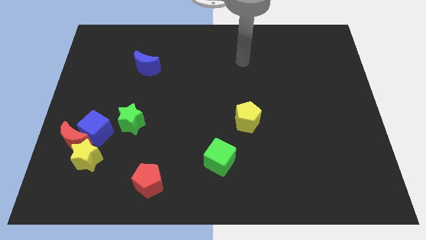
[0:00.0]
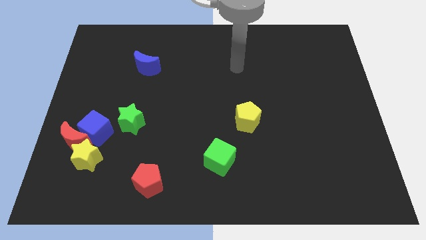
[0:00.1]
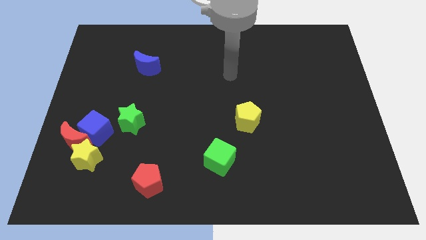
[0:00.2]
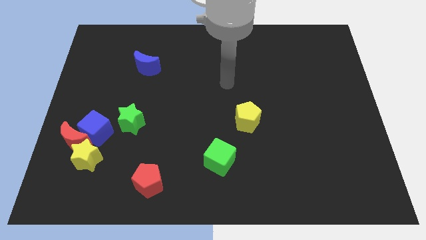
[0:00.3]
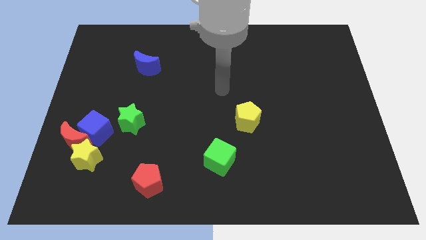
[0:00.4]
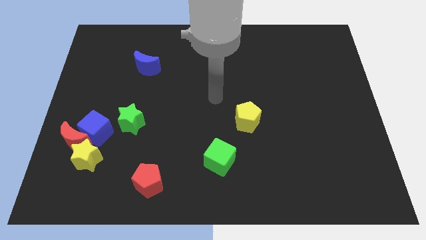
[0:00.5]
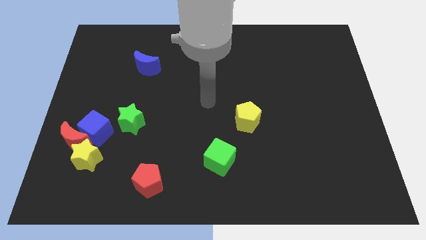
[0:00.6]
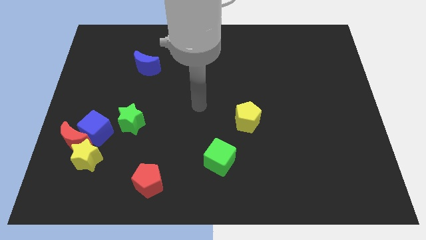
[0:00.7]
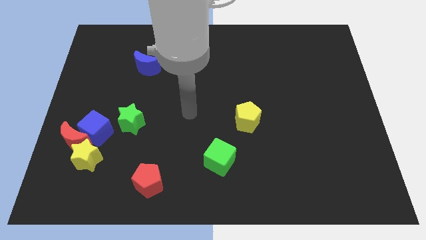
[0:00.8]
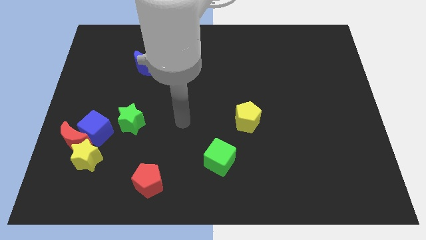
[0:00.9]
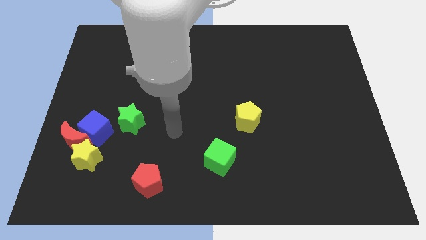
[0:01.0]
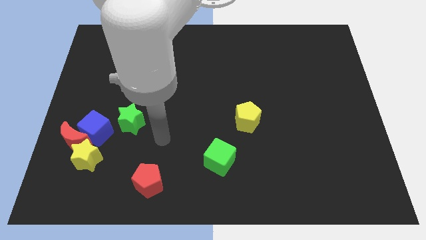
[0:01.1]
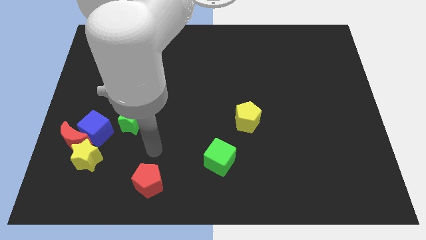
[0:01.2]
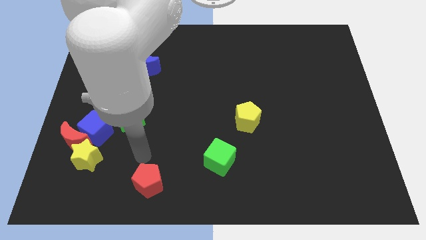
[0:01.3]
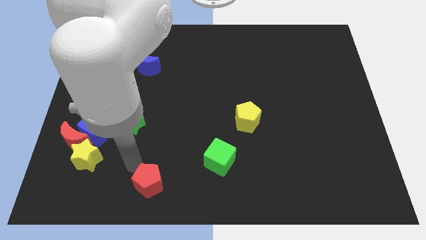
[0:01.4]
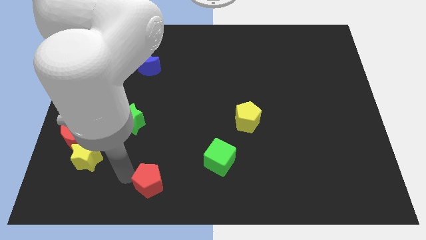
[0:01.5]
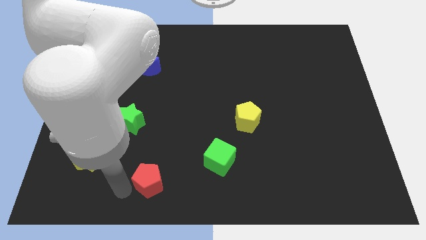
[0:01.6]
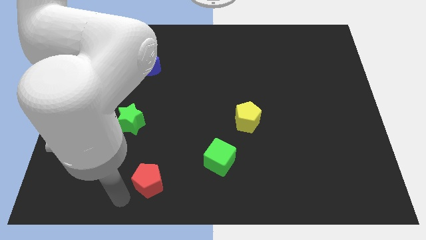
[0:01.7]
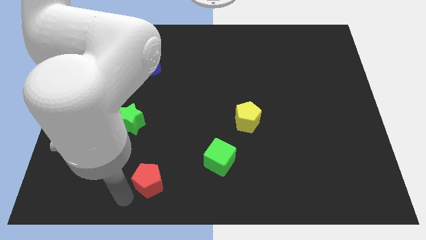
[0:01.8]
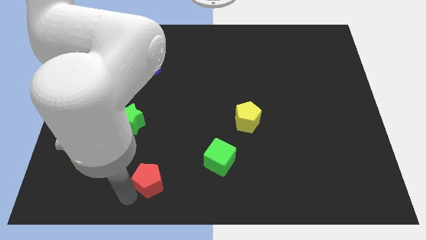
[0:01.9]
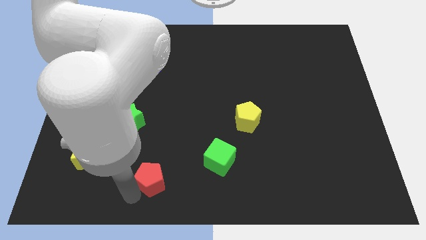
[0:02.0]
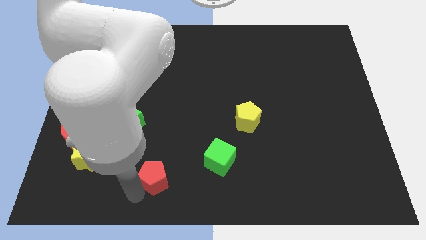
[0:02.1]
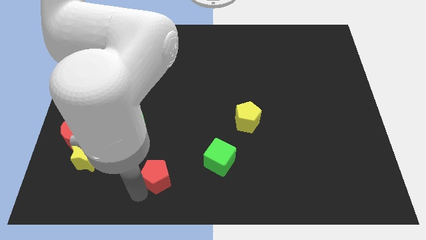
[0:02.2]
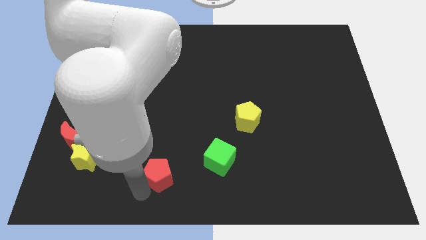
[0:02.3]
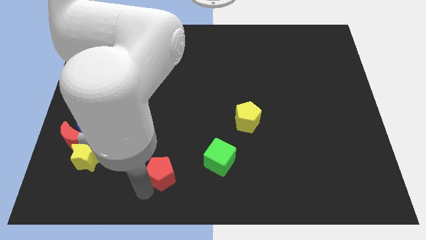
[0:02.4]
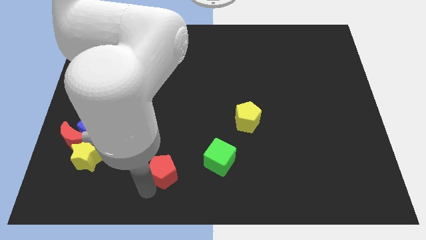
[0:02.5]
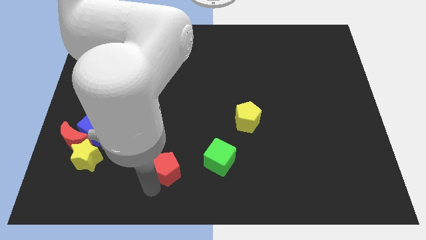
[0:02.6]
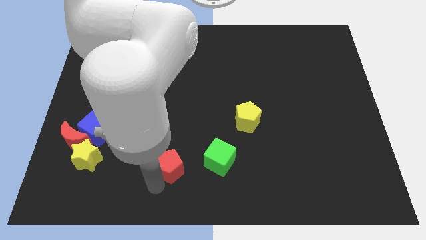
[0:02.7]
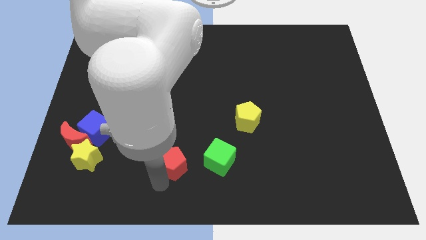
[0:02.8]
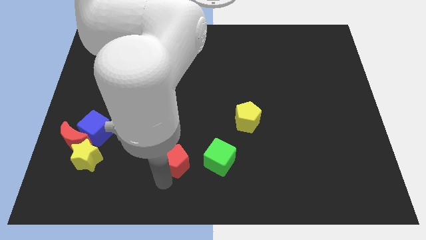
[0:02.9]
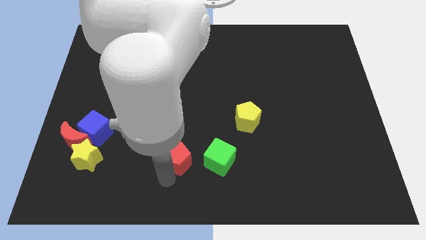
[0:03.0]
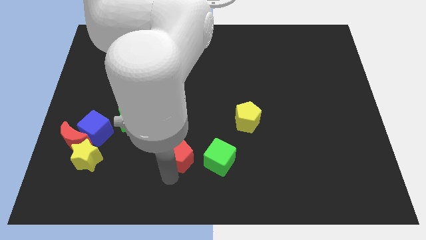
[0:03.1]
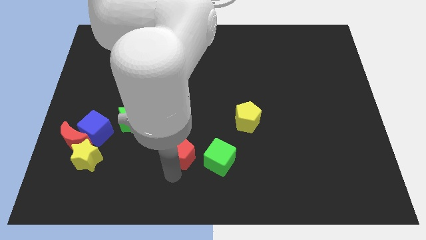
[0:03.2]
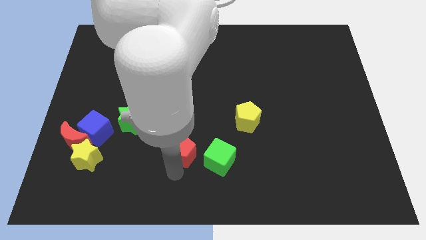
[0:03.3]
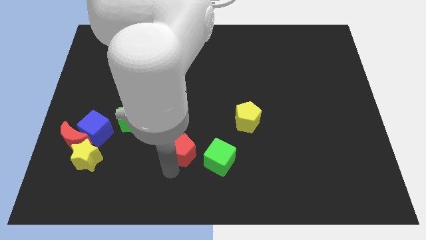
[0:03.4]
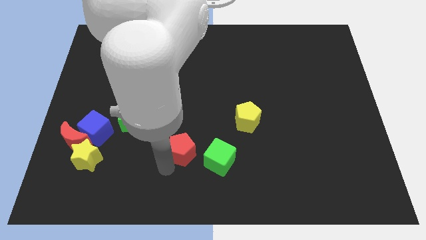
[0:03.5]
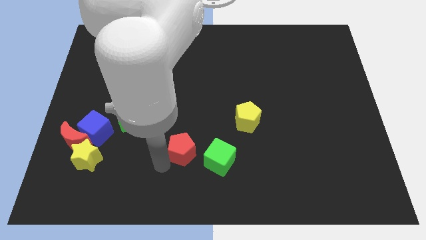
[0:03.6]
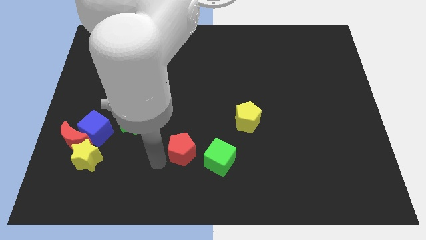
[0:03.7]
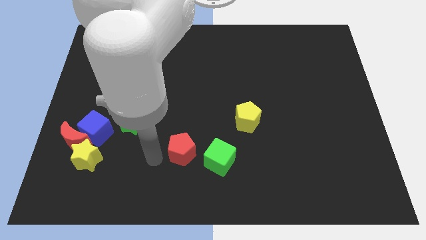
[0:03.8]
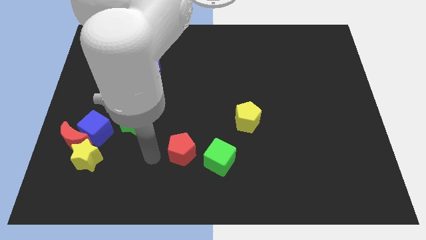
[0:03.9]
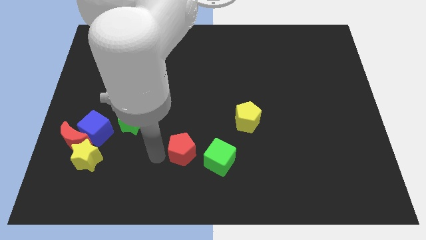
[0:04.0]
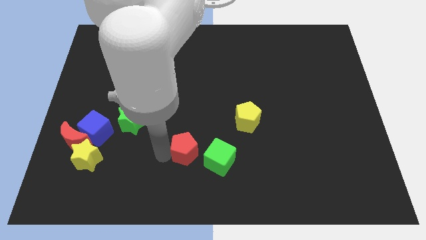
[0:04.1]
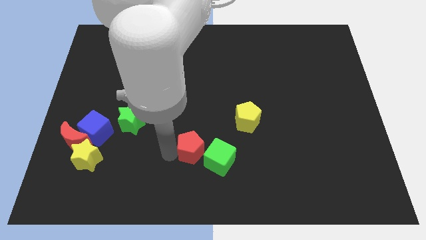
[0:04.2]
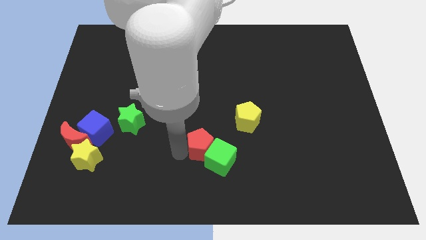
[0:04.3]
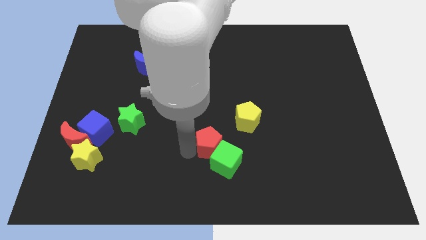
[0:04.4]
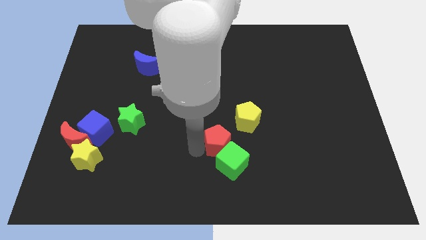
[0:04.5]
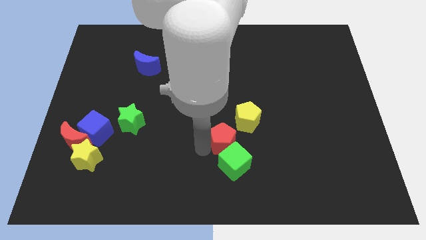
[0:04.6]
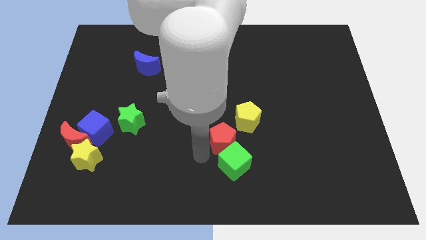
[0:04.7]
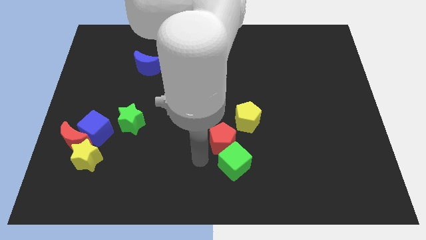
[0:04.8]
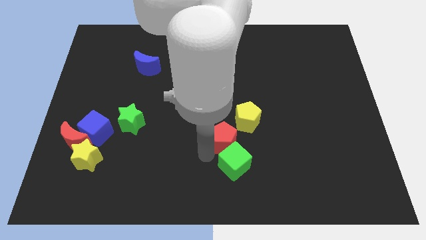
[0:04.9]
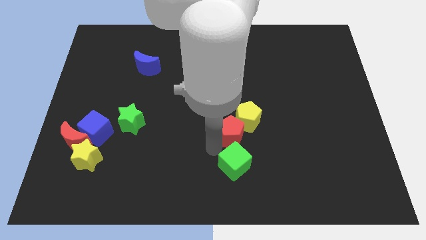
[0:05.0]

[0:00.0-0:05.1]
slide the red pentagon to the yellow pentagon

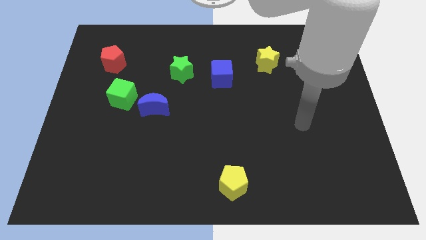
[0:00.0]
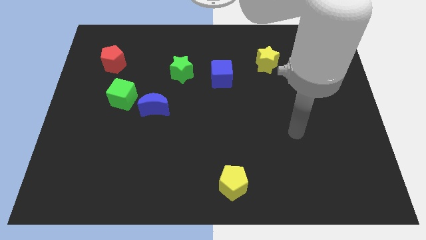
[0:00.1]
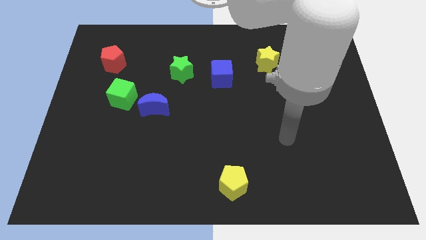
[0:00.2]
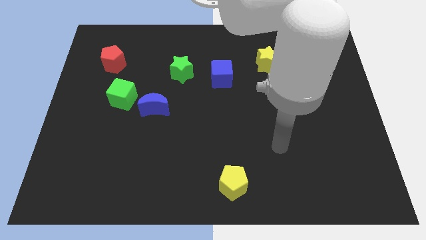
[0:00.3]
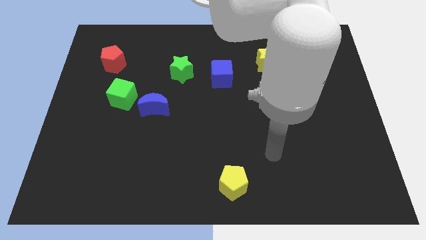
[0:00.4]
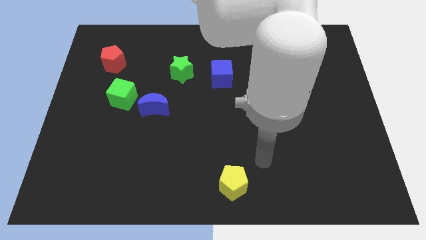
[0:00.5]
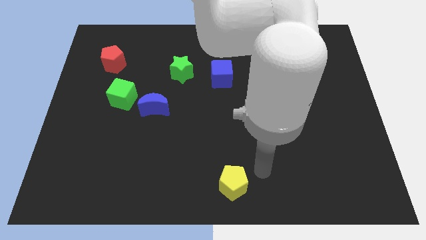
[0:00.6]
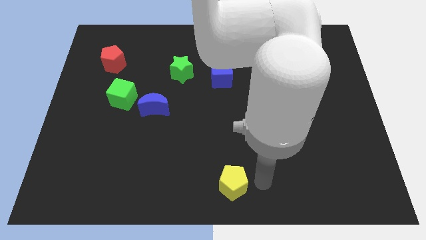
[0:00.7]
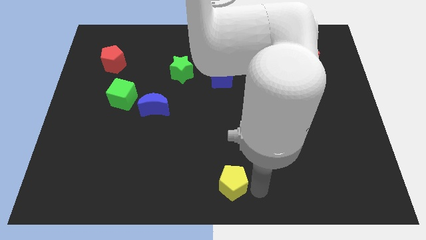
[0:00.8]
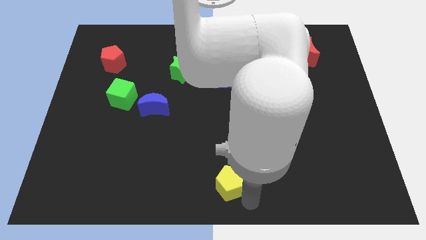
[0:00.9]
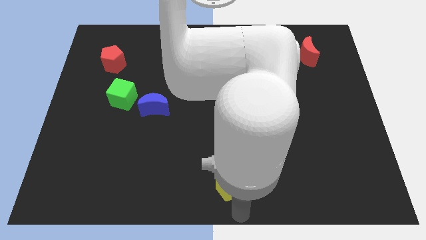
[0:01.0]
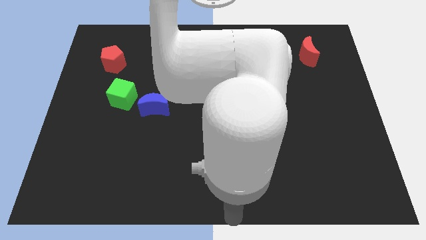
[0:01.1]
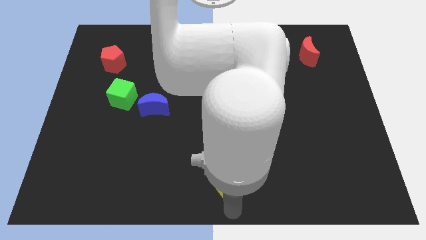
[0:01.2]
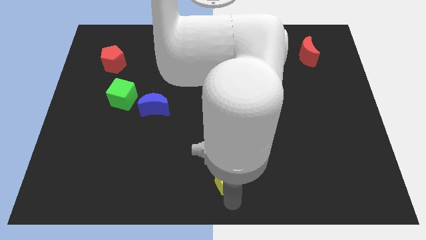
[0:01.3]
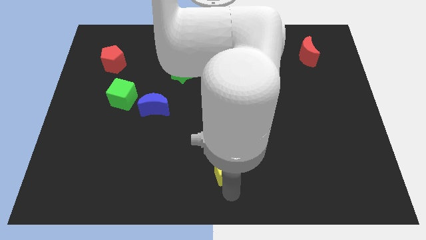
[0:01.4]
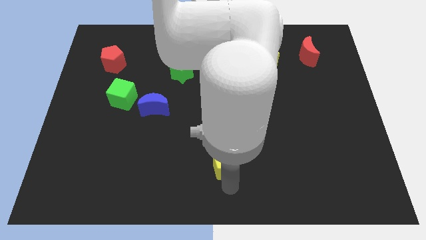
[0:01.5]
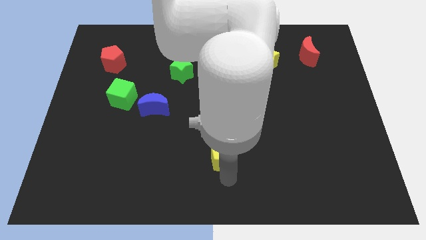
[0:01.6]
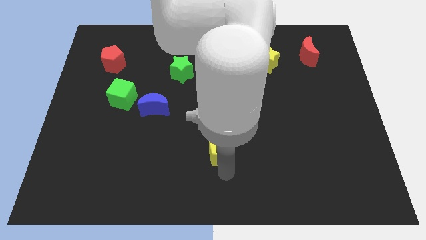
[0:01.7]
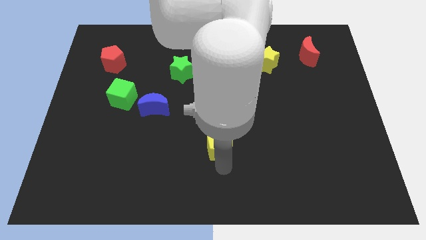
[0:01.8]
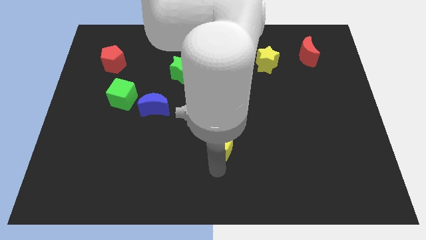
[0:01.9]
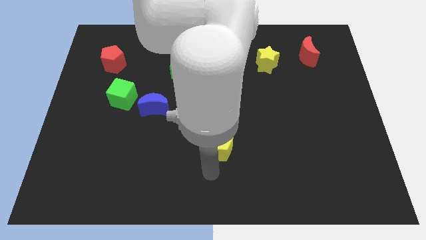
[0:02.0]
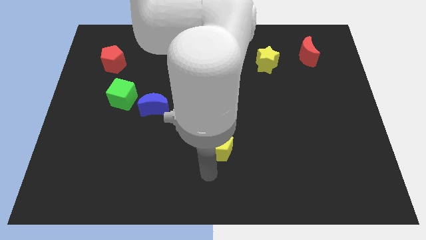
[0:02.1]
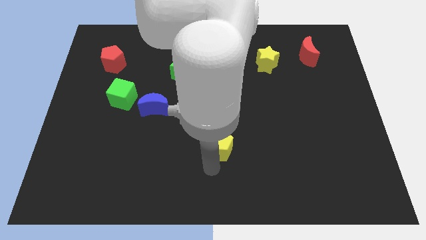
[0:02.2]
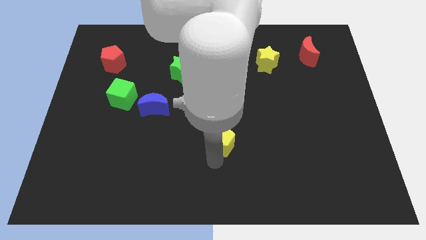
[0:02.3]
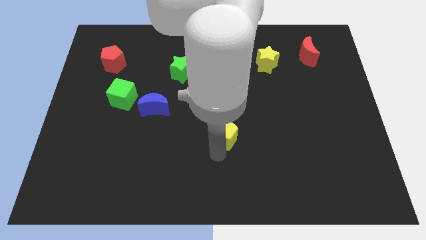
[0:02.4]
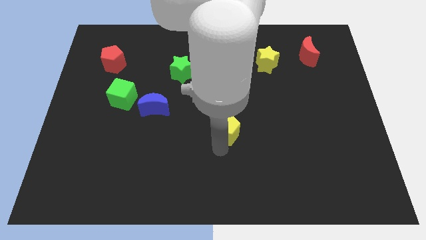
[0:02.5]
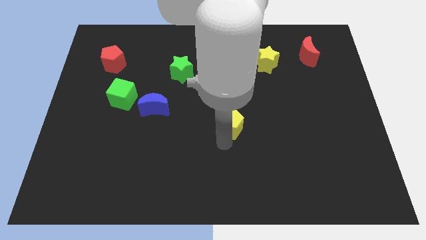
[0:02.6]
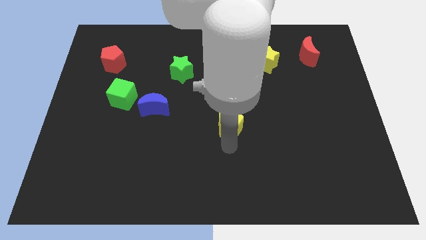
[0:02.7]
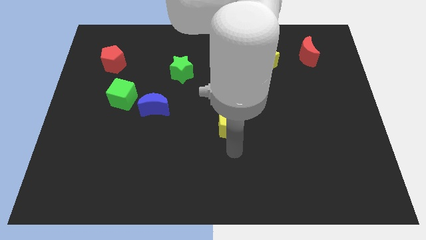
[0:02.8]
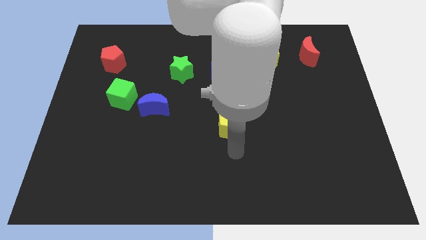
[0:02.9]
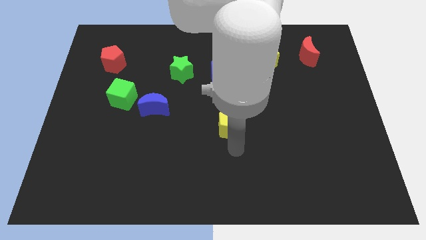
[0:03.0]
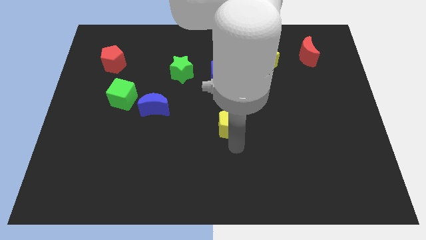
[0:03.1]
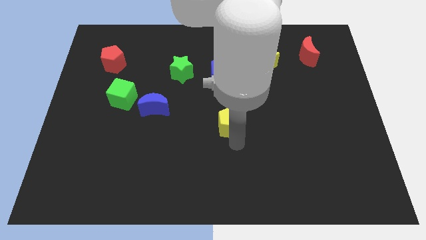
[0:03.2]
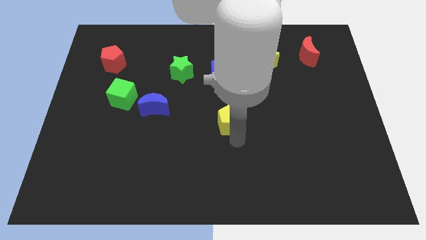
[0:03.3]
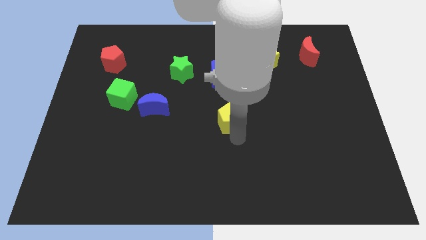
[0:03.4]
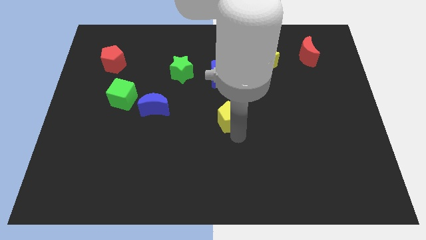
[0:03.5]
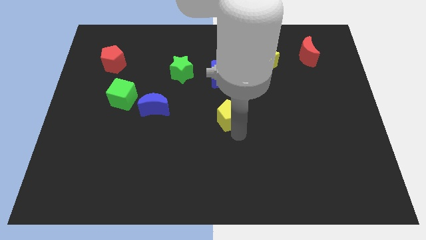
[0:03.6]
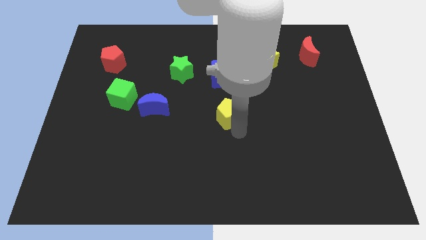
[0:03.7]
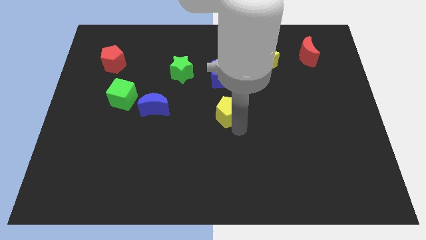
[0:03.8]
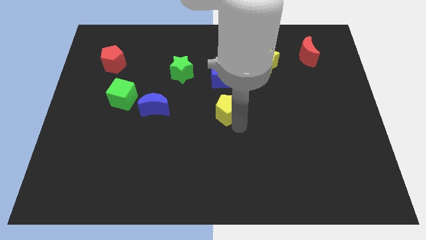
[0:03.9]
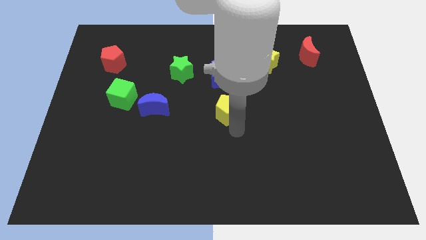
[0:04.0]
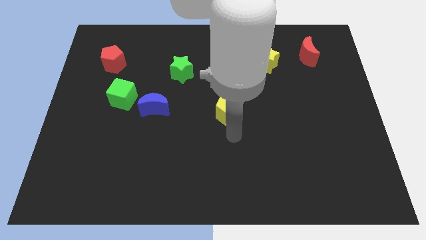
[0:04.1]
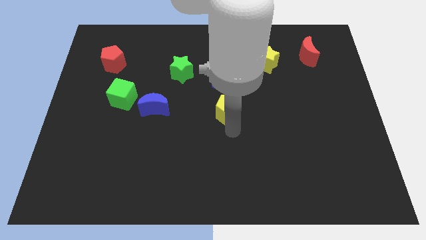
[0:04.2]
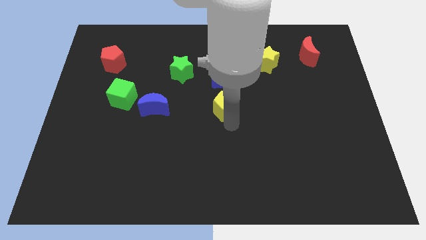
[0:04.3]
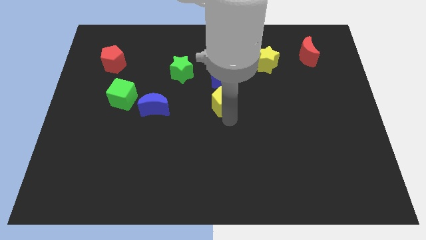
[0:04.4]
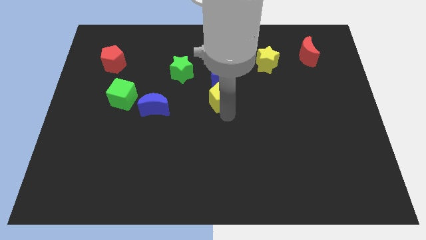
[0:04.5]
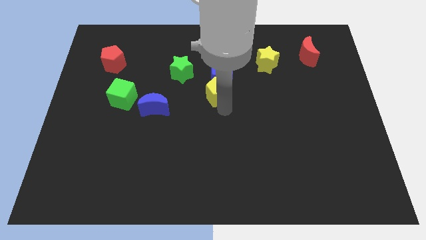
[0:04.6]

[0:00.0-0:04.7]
push the yellow pentagon to the blue cube
